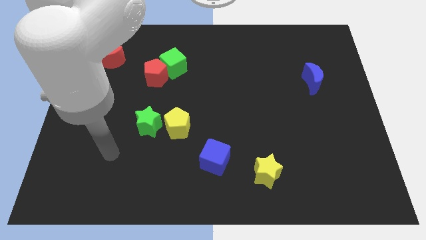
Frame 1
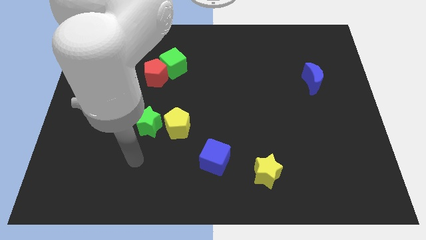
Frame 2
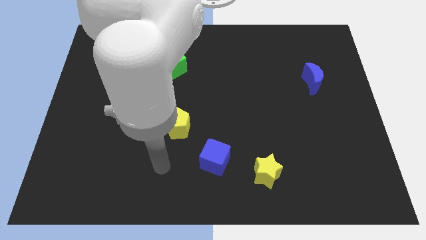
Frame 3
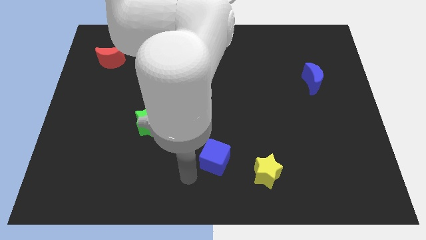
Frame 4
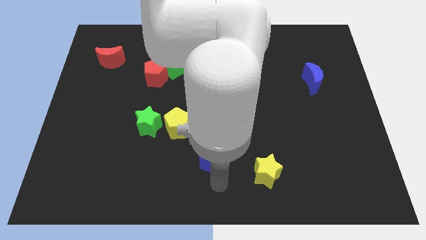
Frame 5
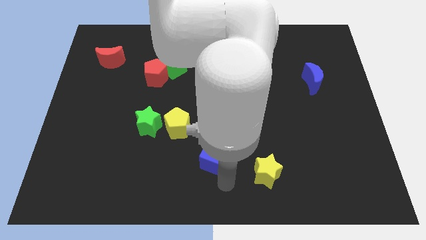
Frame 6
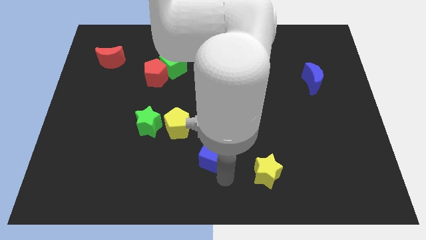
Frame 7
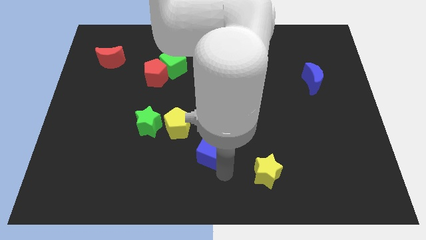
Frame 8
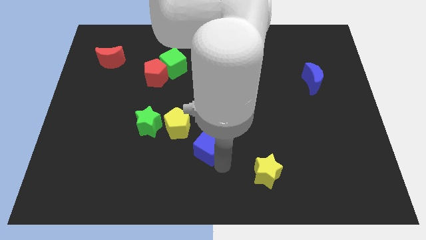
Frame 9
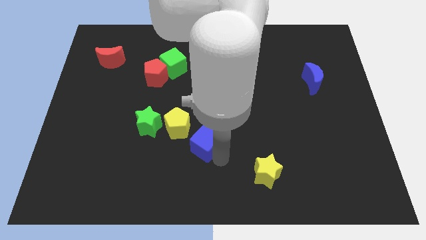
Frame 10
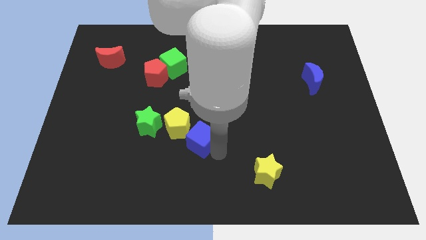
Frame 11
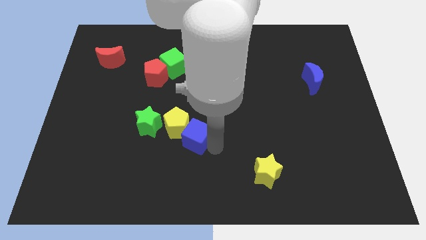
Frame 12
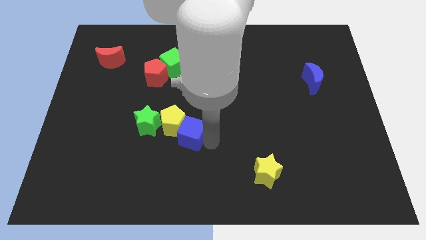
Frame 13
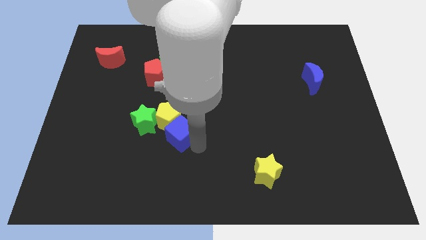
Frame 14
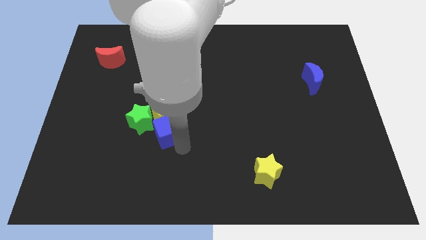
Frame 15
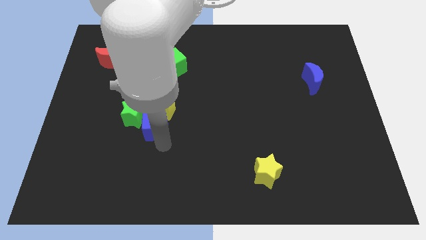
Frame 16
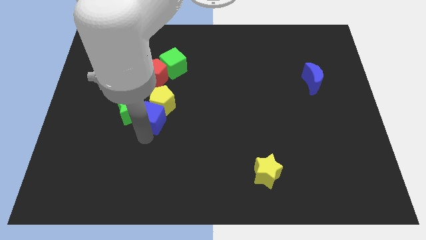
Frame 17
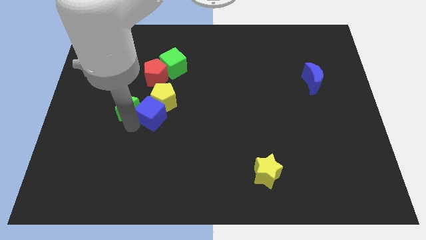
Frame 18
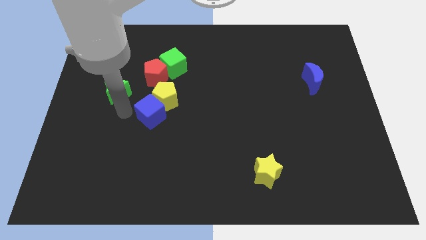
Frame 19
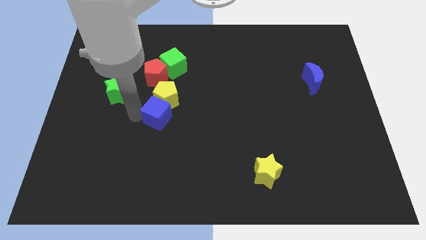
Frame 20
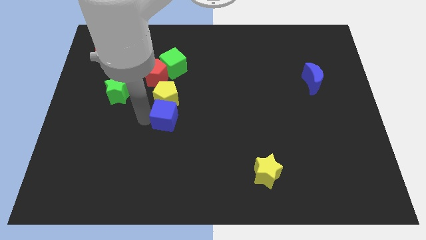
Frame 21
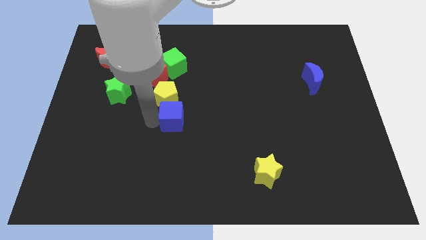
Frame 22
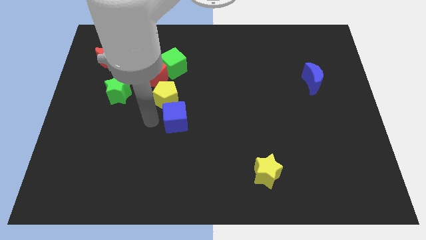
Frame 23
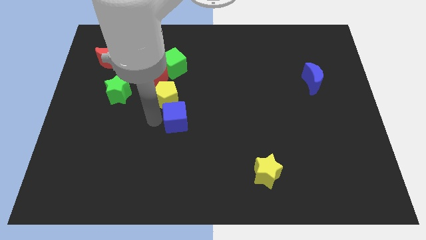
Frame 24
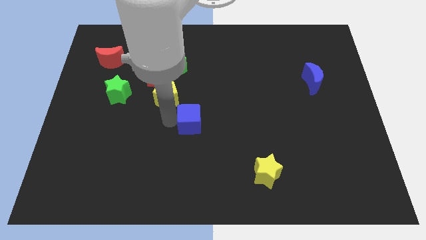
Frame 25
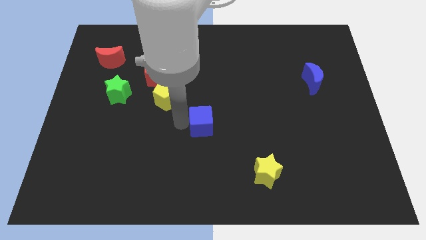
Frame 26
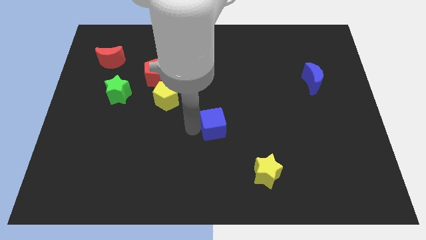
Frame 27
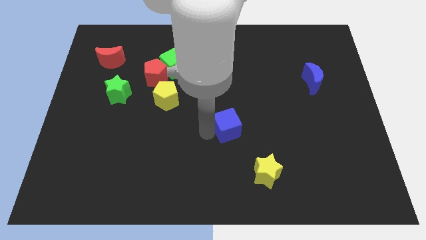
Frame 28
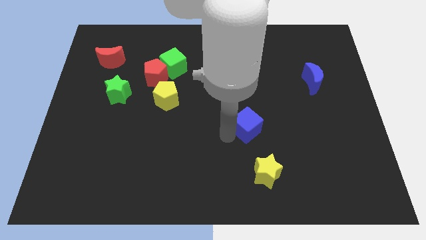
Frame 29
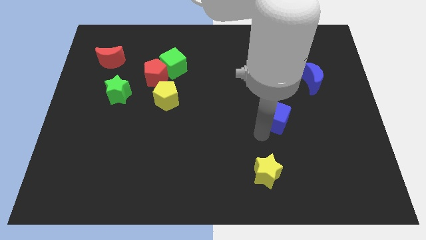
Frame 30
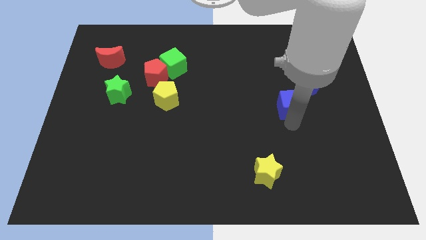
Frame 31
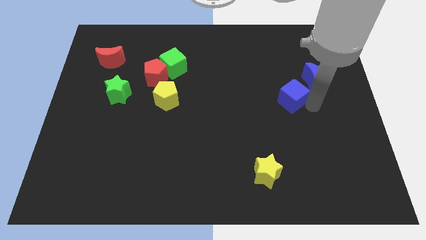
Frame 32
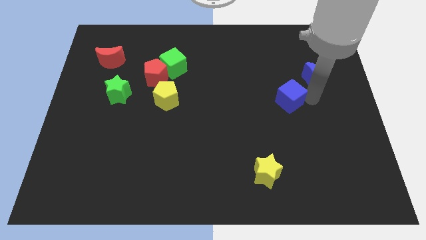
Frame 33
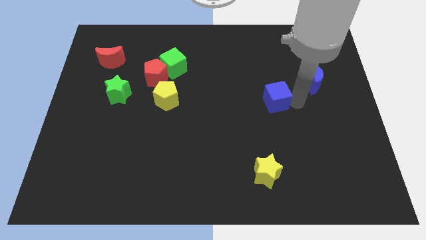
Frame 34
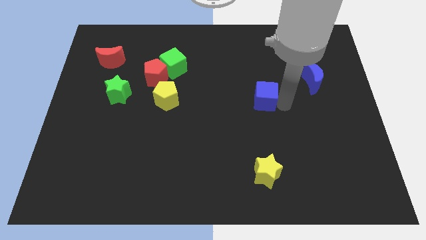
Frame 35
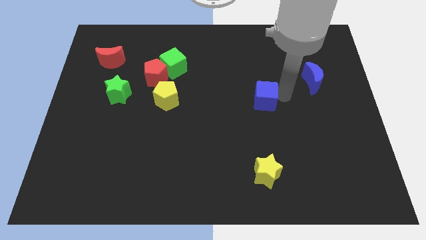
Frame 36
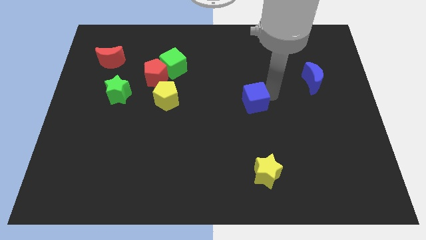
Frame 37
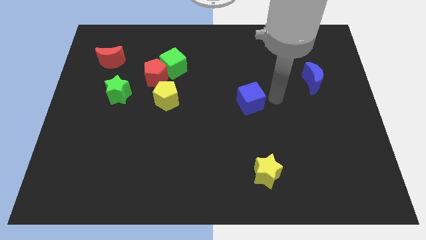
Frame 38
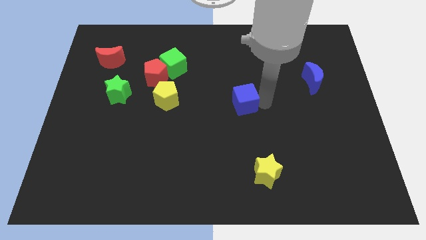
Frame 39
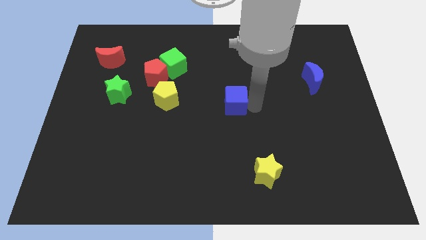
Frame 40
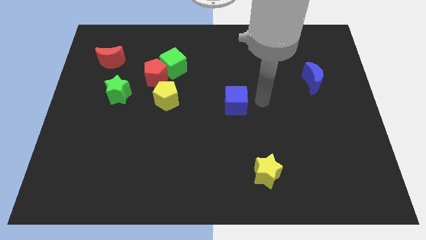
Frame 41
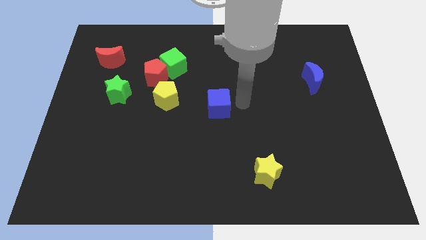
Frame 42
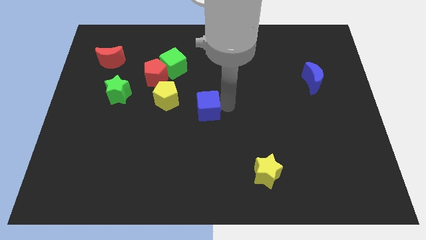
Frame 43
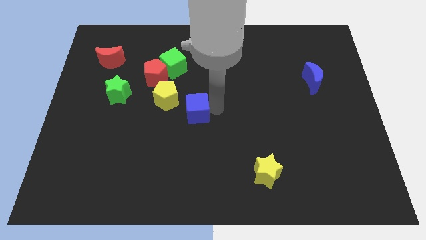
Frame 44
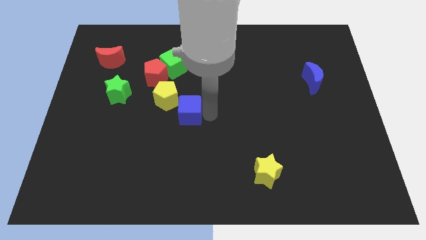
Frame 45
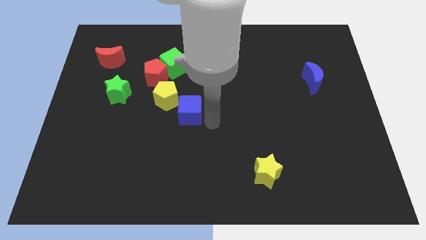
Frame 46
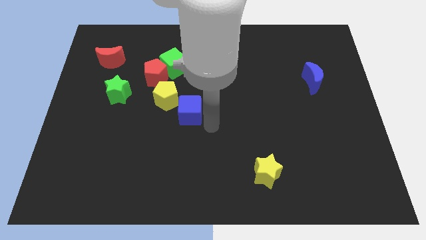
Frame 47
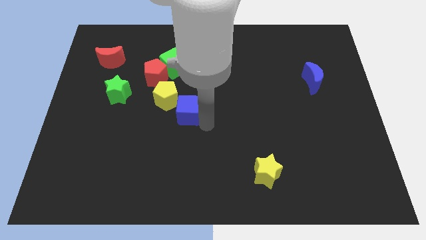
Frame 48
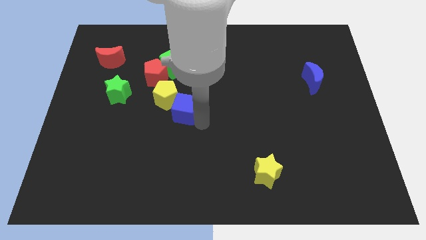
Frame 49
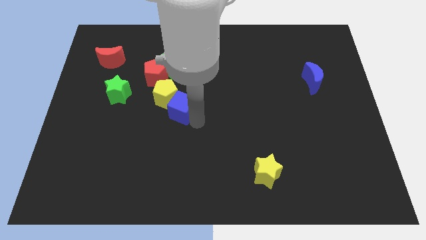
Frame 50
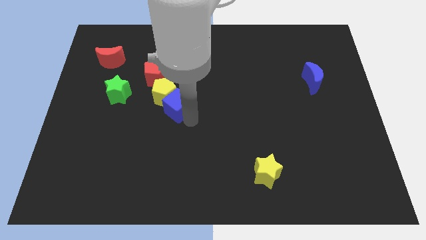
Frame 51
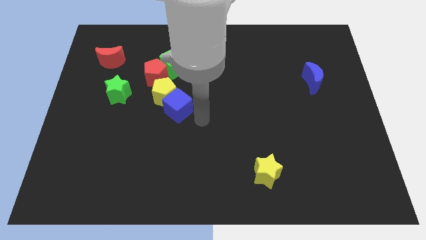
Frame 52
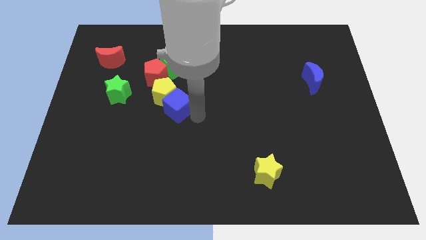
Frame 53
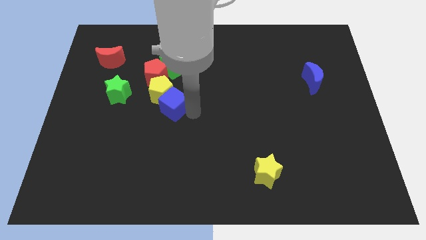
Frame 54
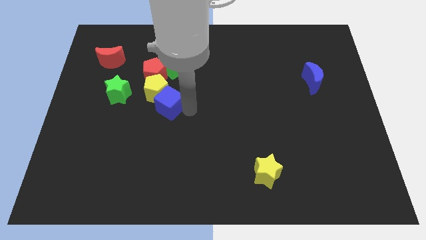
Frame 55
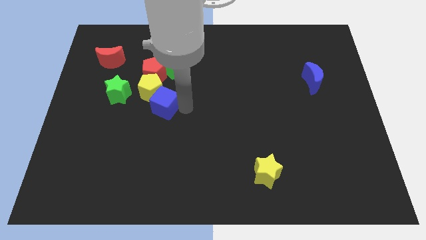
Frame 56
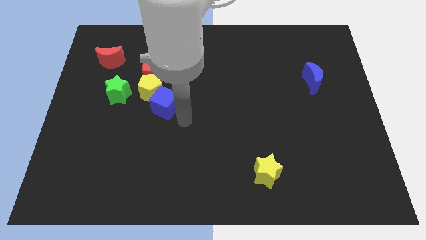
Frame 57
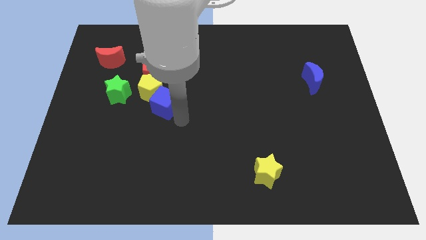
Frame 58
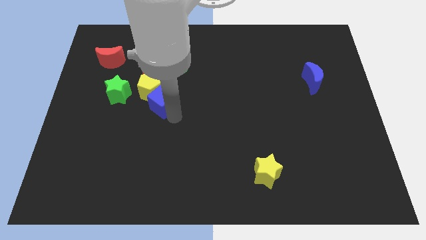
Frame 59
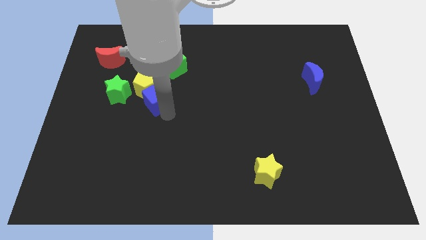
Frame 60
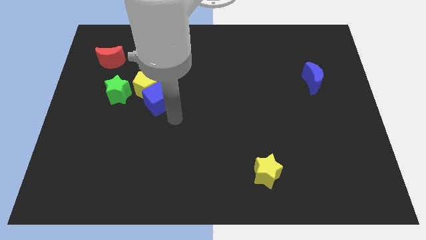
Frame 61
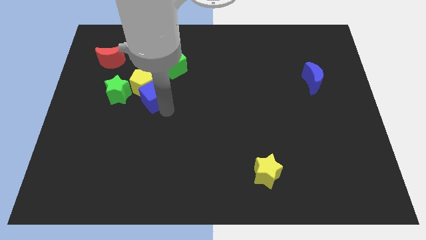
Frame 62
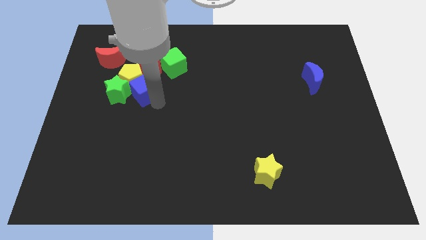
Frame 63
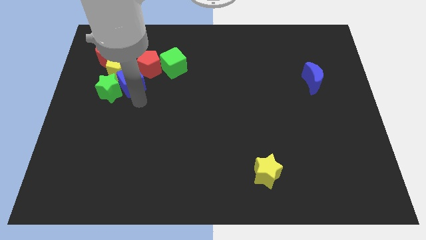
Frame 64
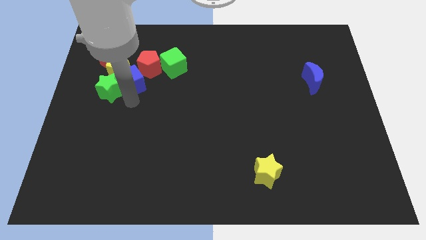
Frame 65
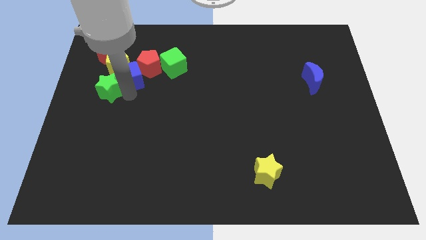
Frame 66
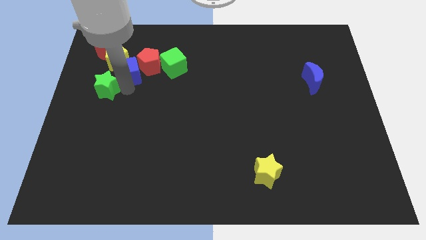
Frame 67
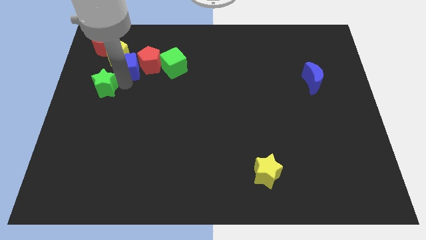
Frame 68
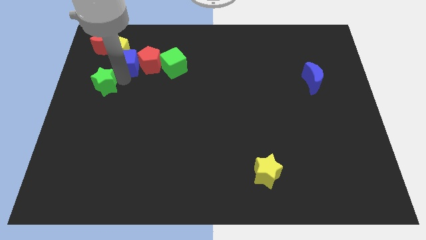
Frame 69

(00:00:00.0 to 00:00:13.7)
slide the blue cube to the top left of the red pentagon
